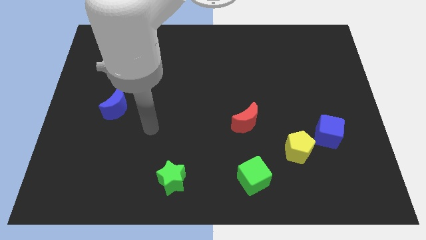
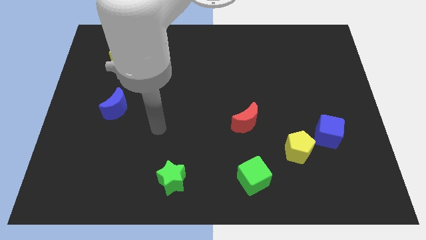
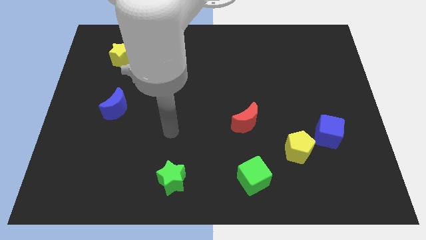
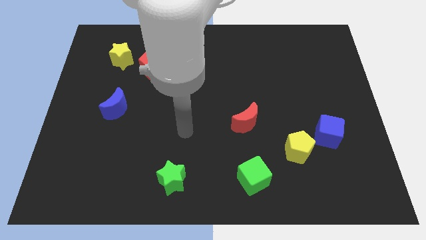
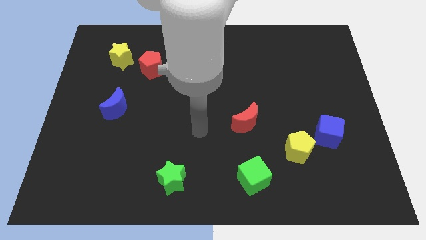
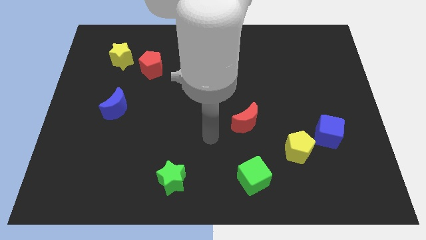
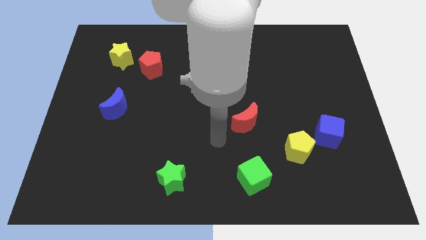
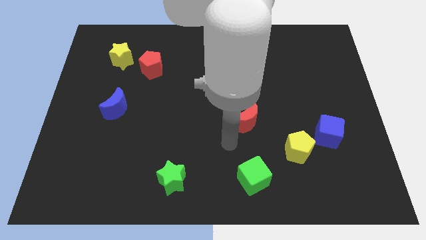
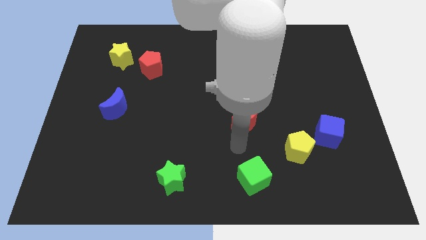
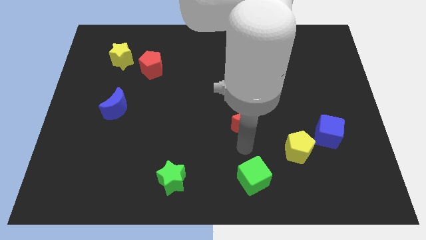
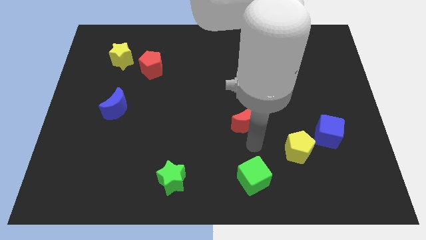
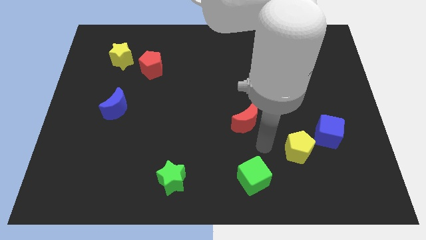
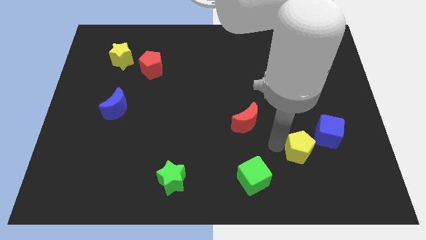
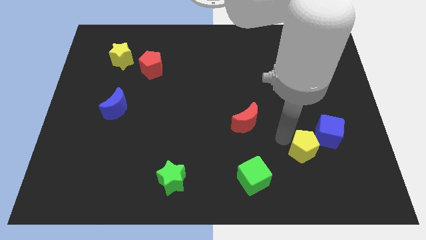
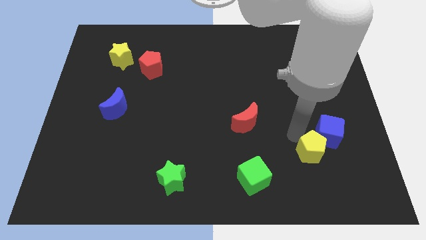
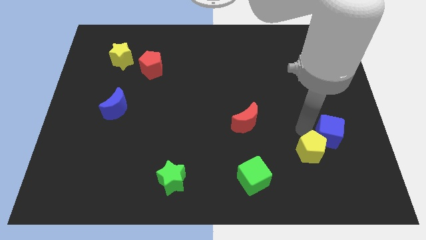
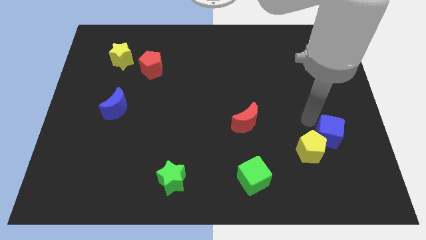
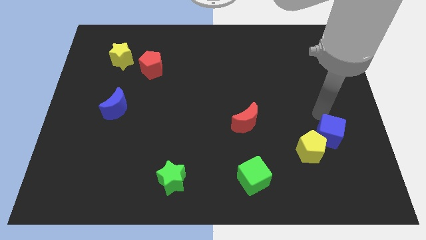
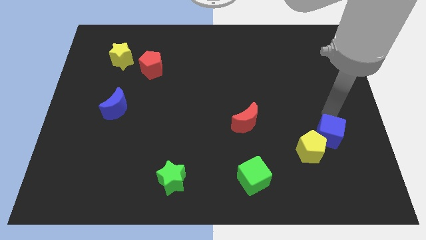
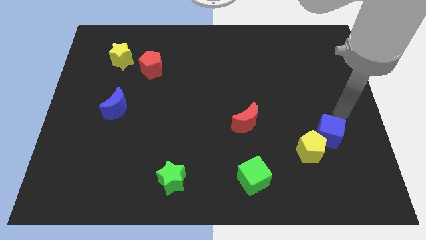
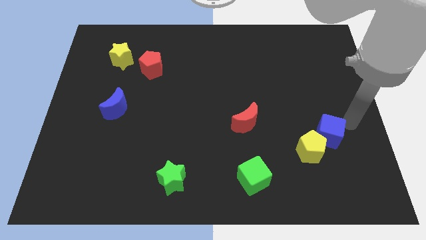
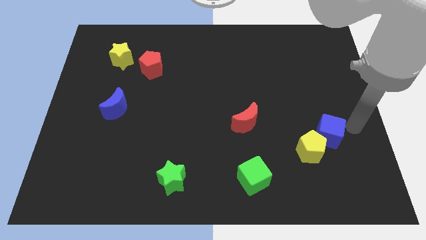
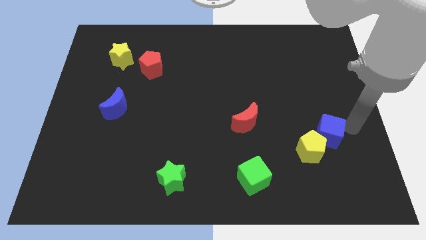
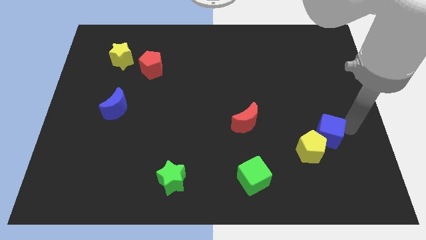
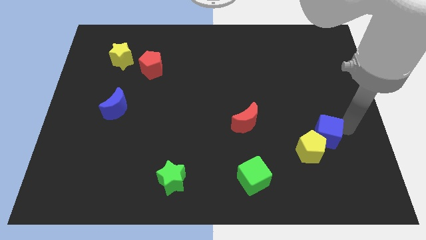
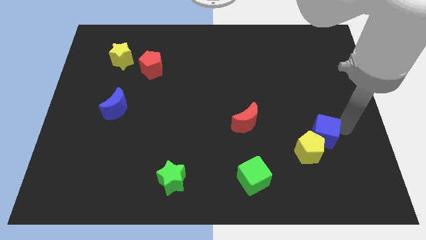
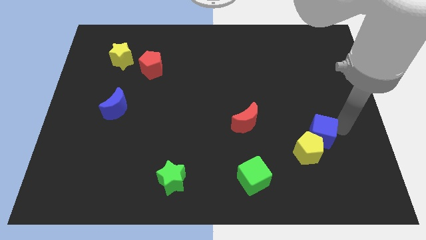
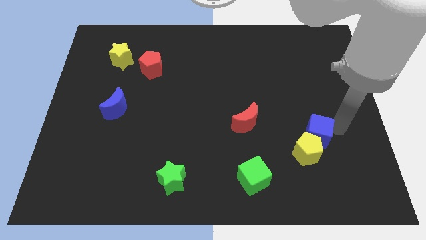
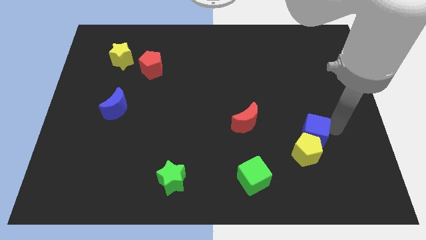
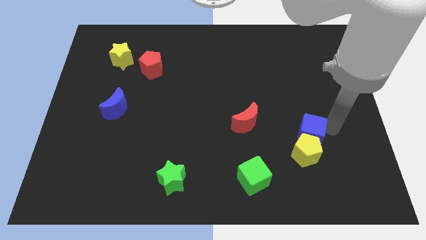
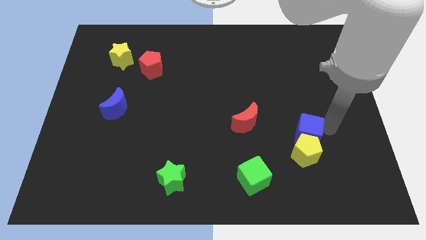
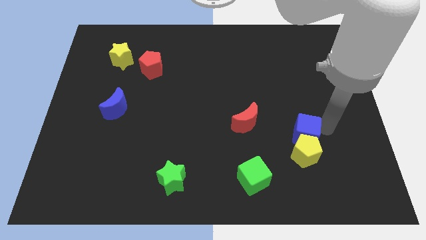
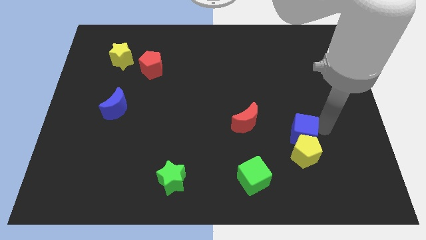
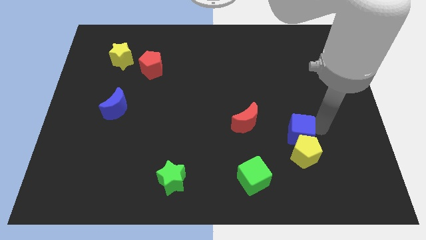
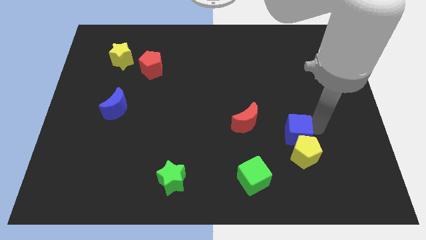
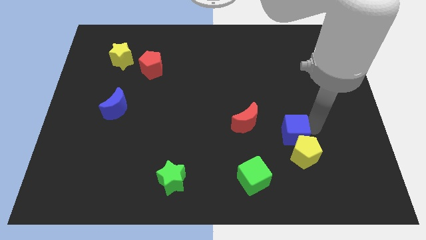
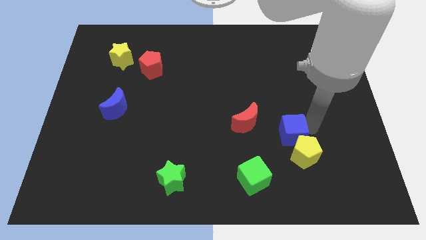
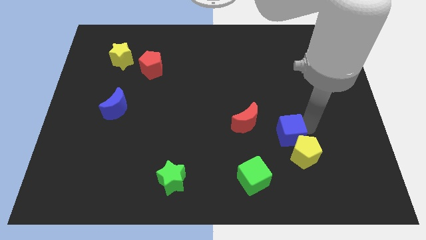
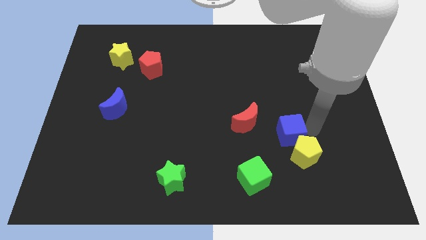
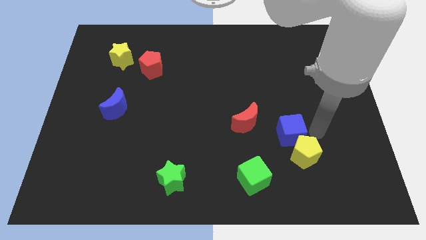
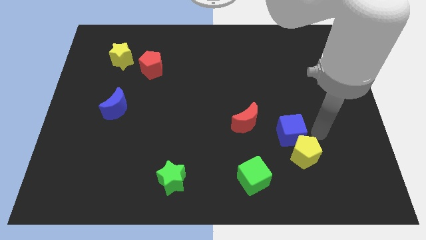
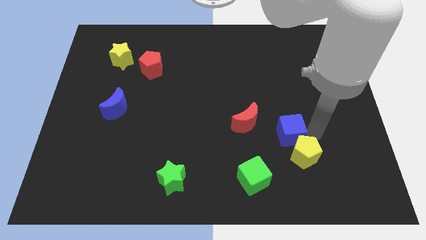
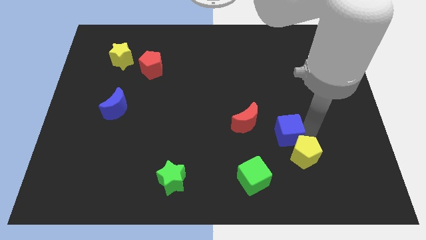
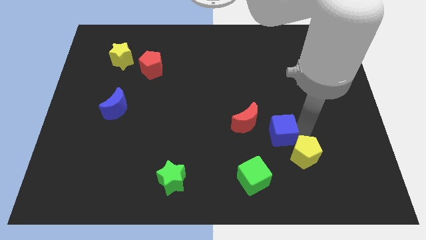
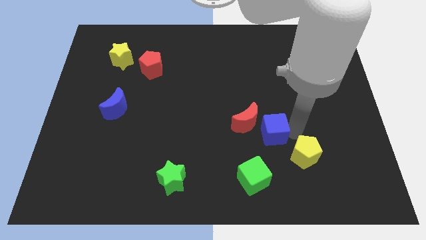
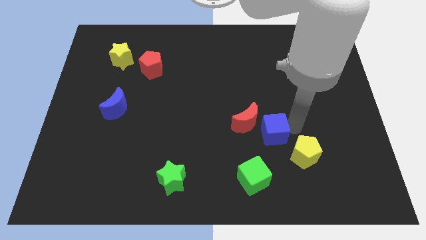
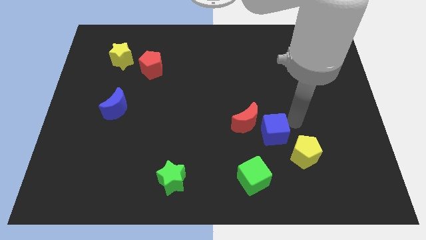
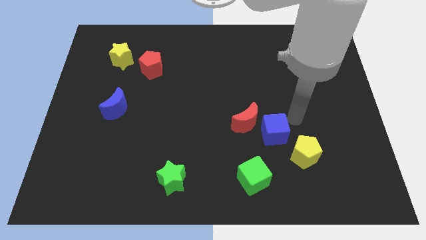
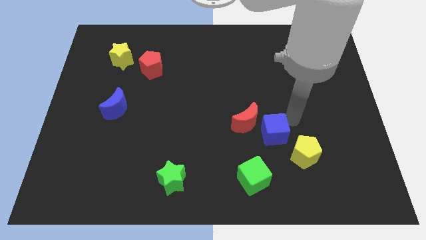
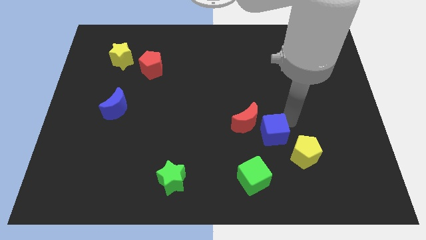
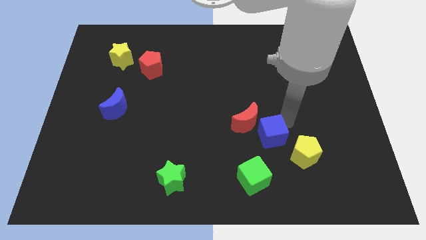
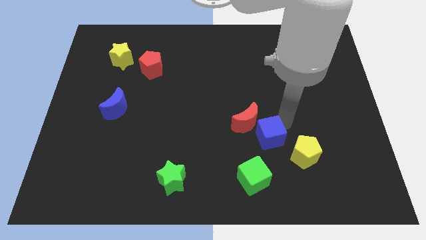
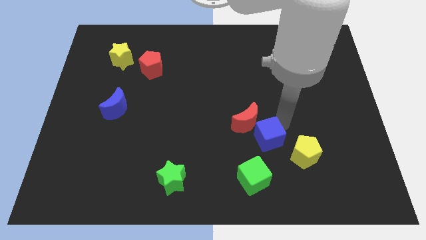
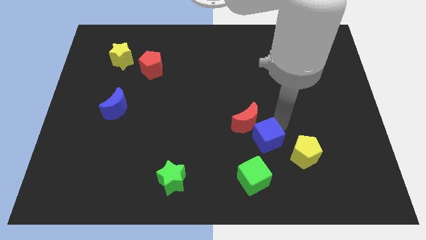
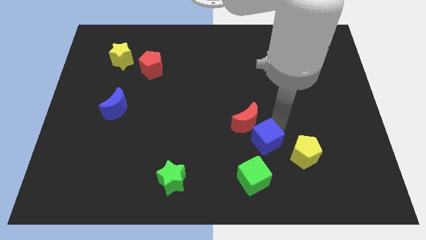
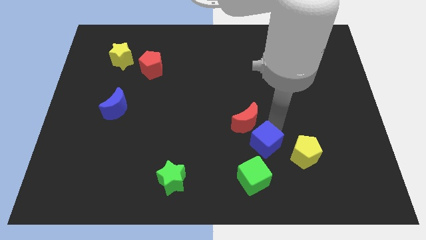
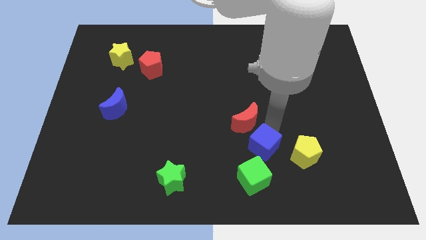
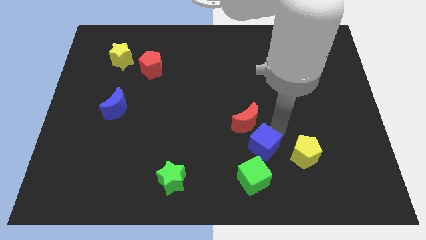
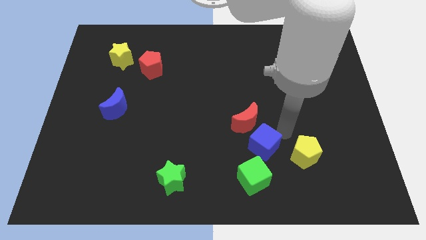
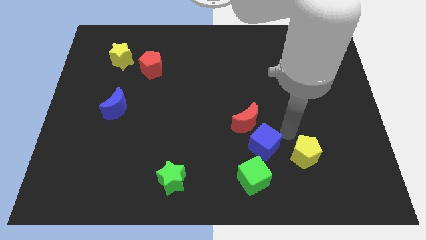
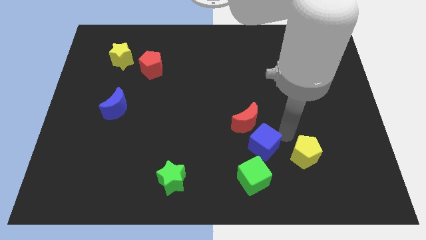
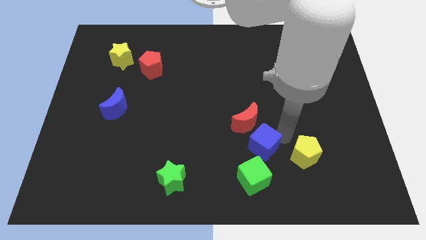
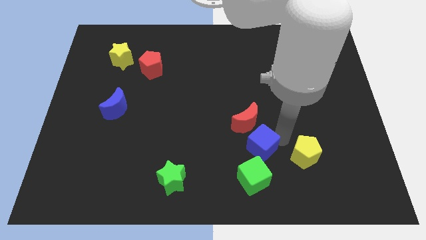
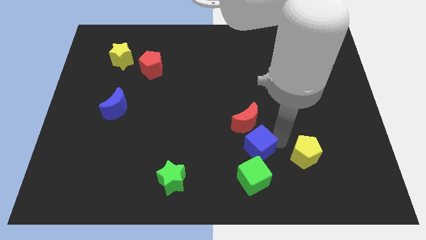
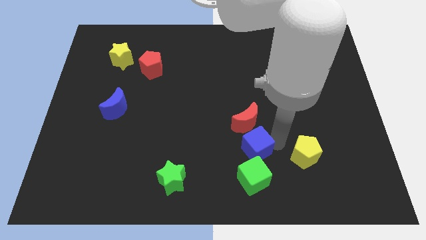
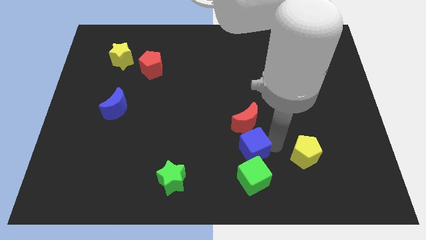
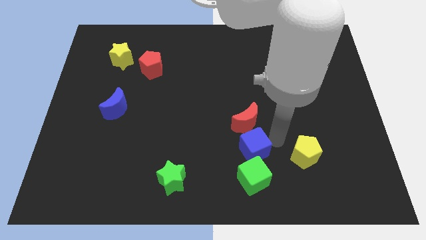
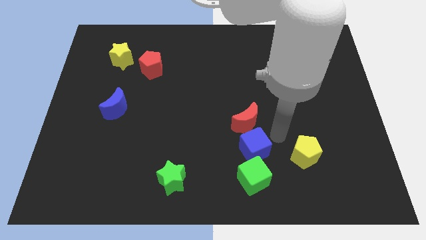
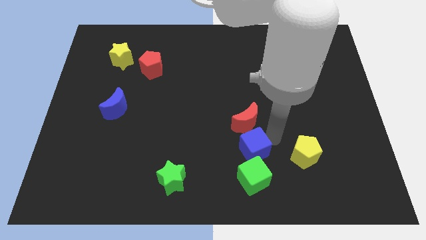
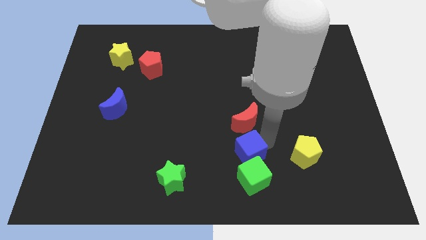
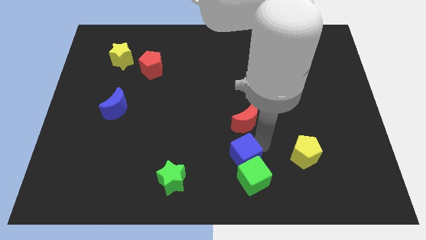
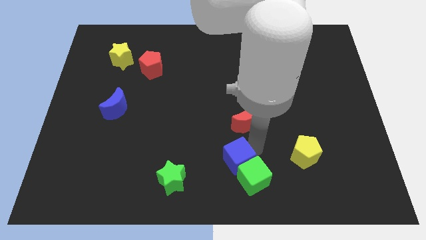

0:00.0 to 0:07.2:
push the blue cube to the left of the green cube
